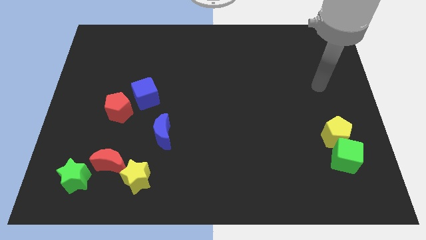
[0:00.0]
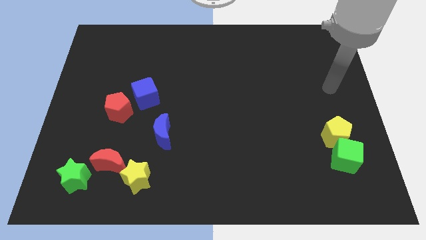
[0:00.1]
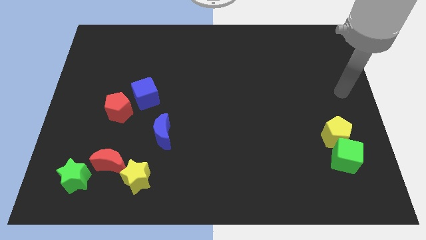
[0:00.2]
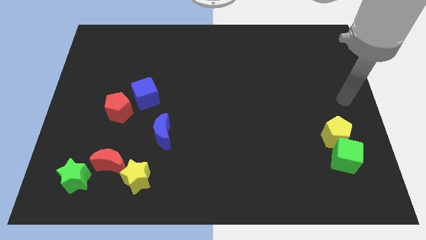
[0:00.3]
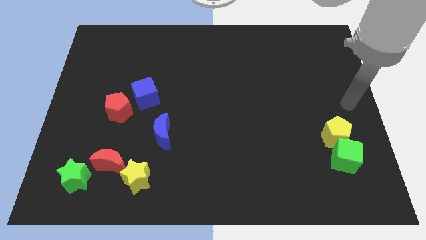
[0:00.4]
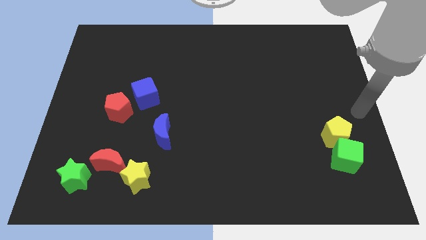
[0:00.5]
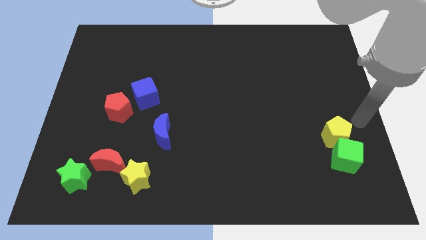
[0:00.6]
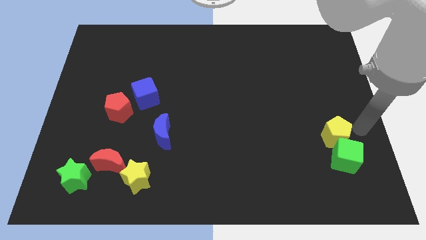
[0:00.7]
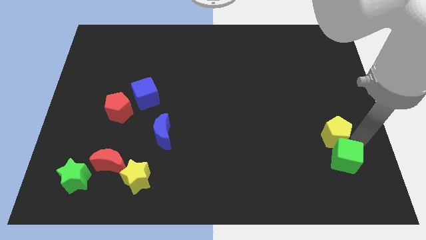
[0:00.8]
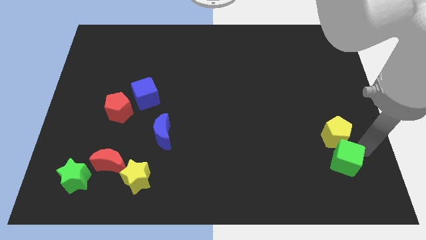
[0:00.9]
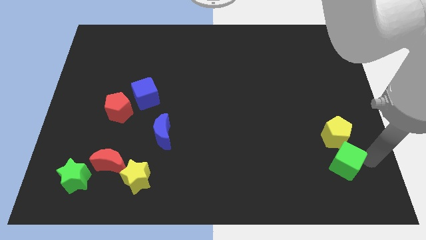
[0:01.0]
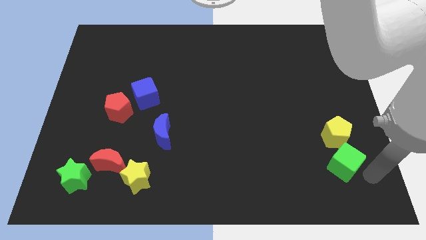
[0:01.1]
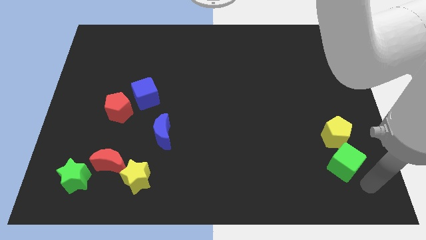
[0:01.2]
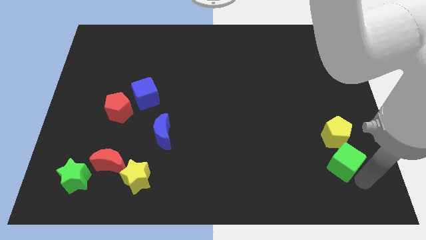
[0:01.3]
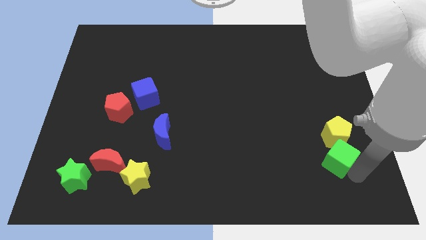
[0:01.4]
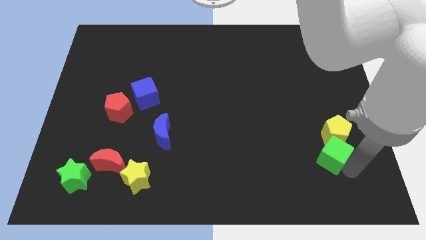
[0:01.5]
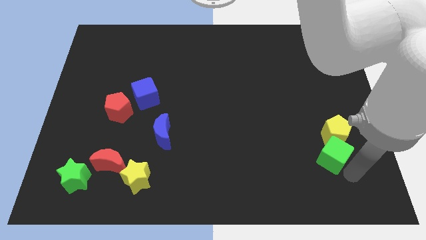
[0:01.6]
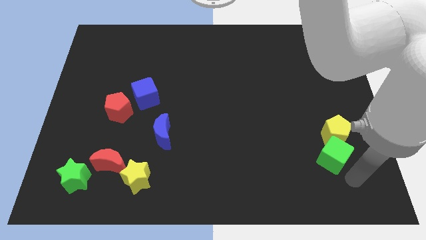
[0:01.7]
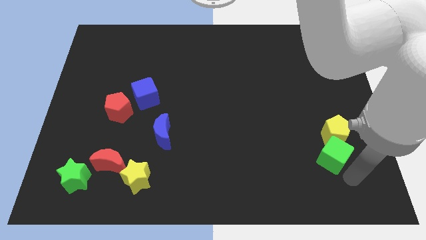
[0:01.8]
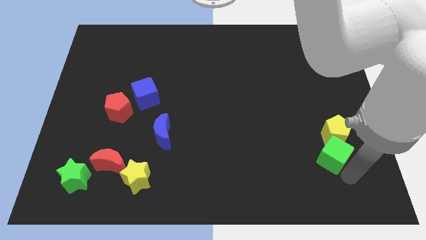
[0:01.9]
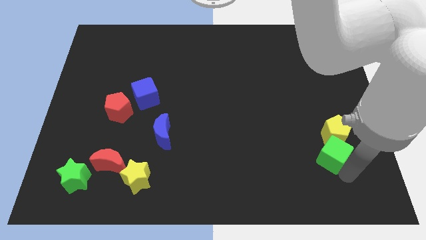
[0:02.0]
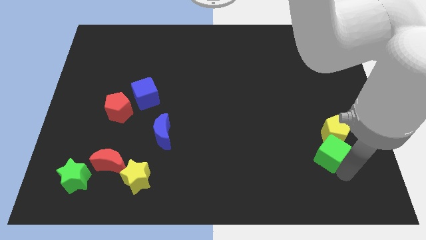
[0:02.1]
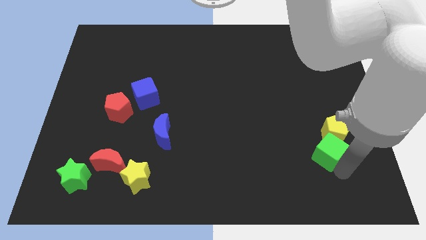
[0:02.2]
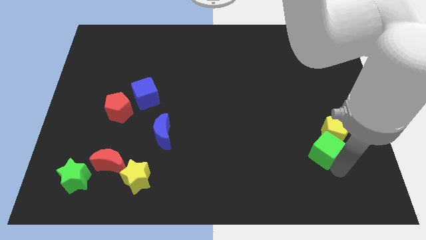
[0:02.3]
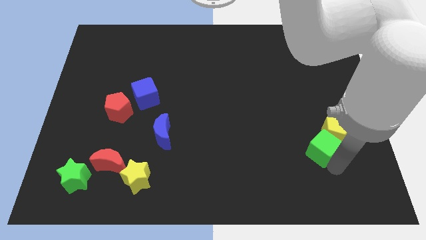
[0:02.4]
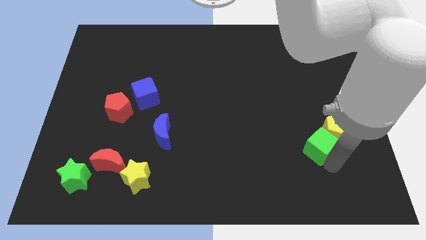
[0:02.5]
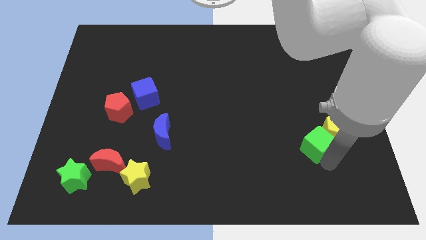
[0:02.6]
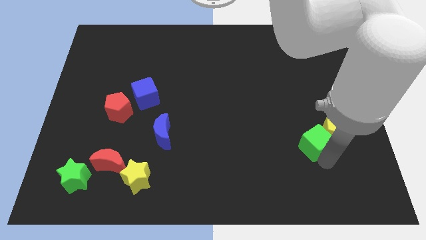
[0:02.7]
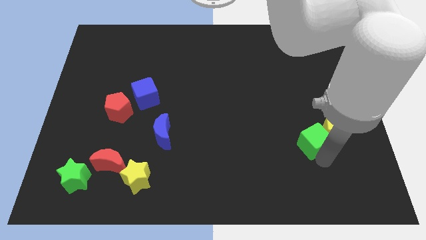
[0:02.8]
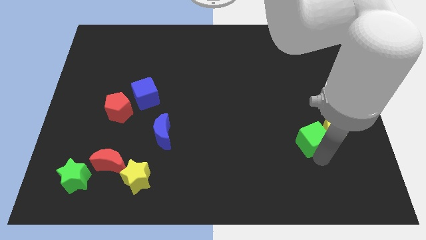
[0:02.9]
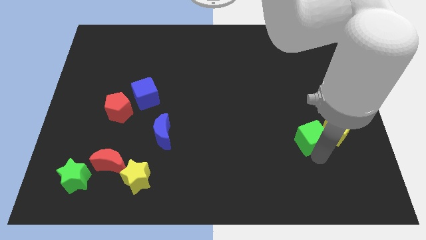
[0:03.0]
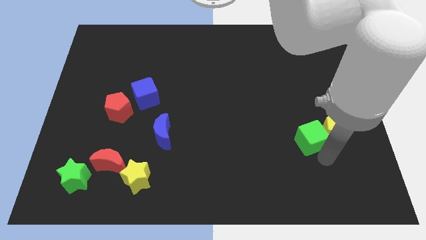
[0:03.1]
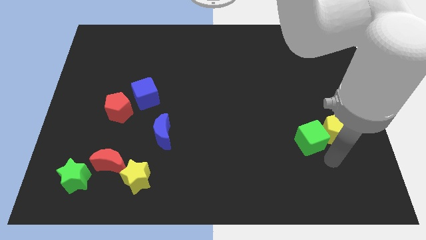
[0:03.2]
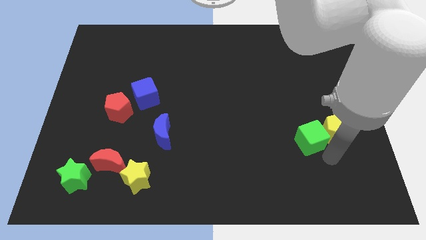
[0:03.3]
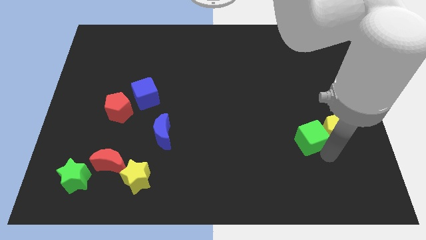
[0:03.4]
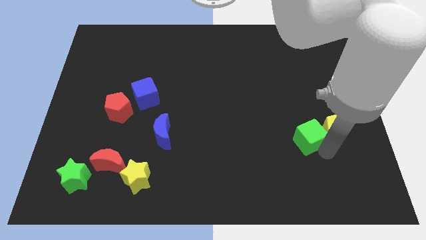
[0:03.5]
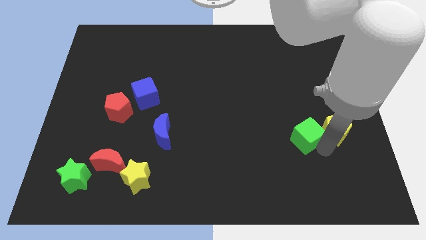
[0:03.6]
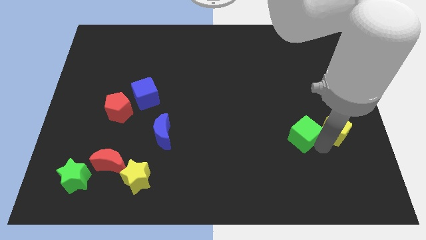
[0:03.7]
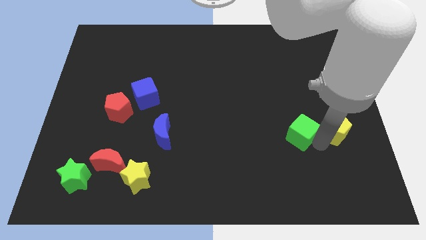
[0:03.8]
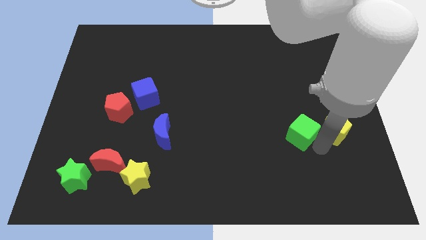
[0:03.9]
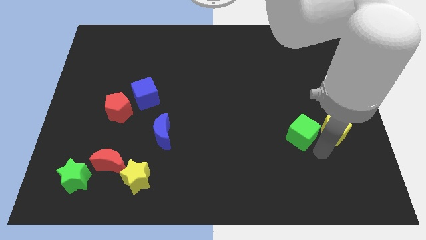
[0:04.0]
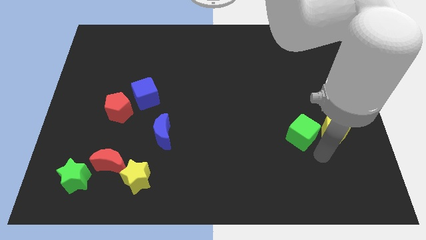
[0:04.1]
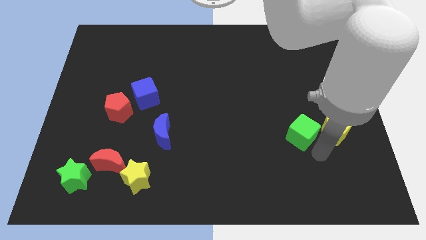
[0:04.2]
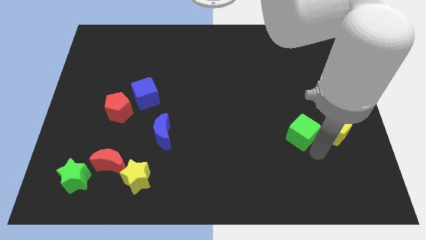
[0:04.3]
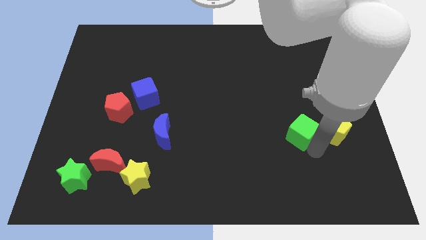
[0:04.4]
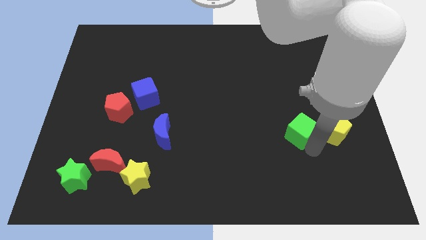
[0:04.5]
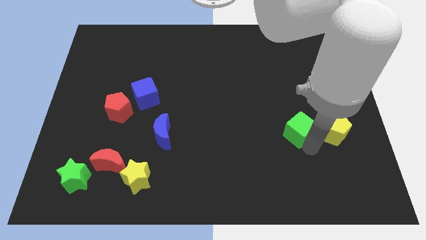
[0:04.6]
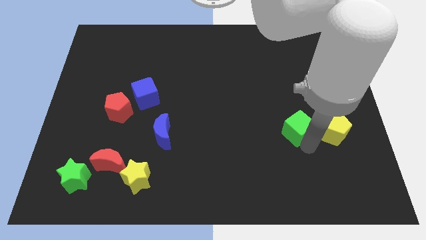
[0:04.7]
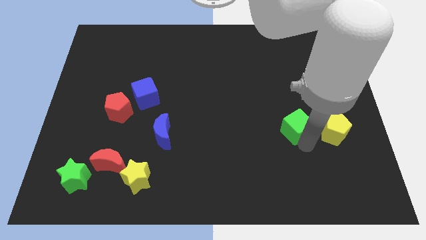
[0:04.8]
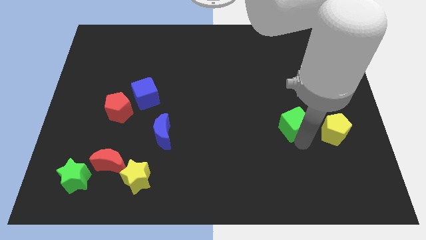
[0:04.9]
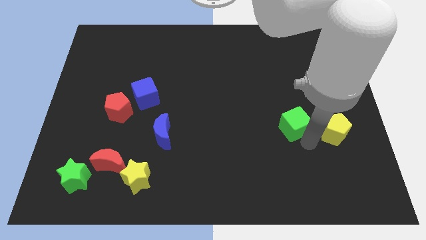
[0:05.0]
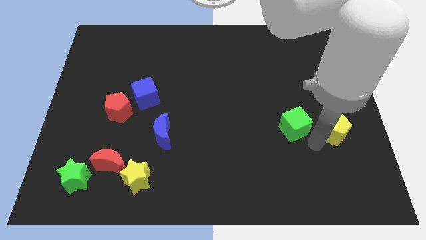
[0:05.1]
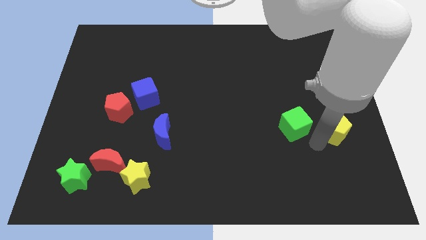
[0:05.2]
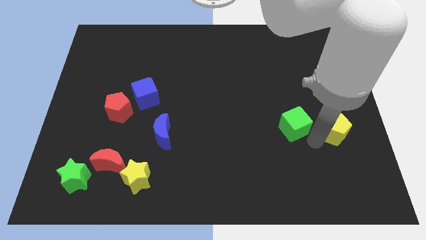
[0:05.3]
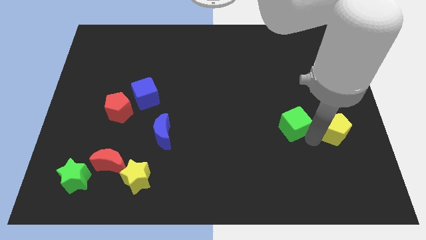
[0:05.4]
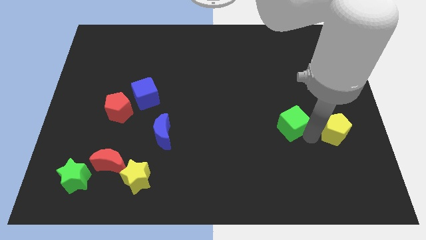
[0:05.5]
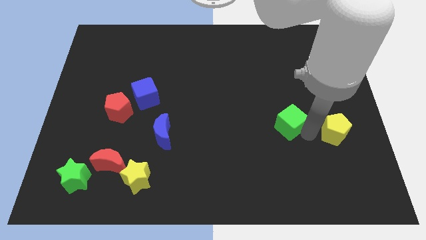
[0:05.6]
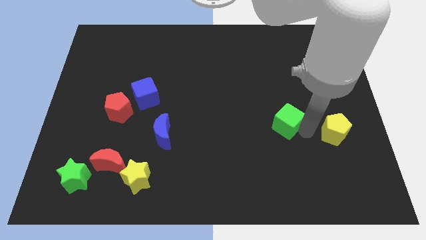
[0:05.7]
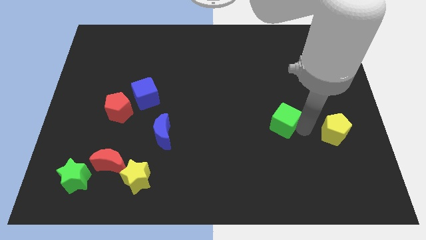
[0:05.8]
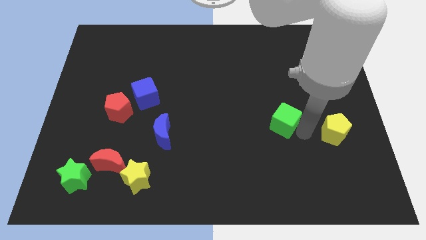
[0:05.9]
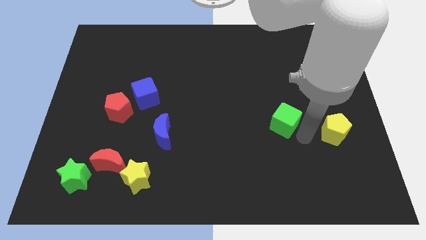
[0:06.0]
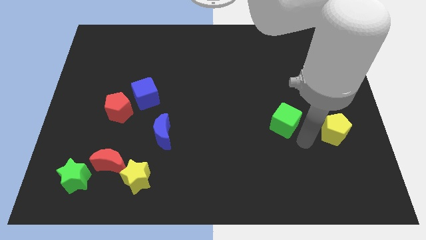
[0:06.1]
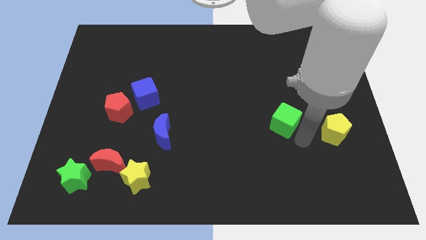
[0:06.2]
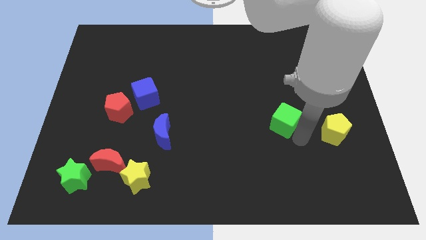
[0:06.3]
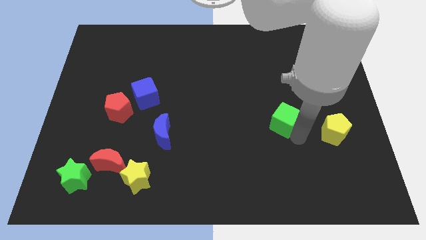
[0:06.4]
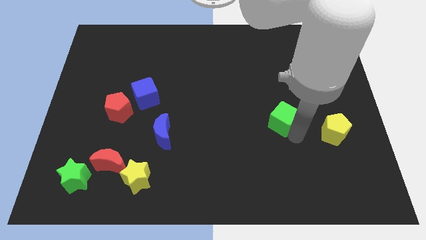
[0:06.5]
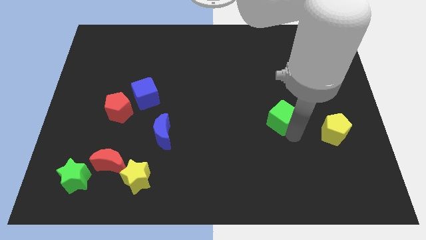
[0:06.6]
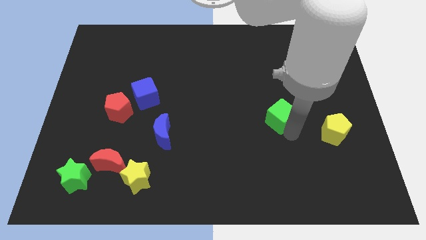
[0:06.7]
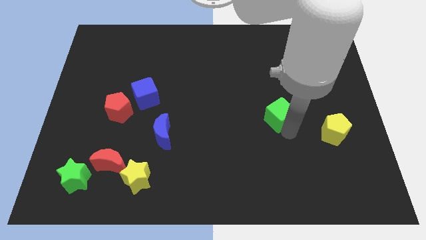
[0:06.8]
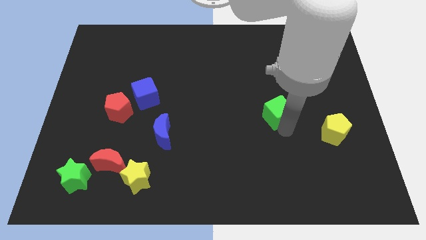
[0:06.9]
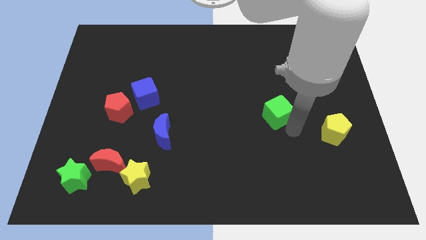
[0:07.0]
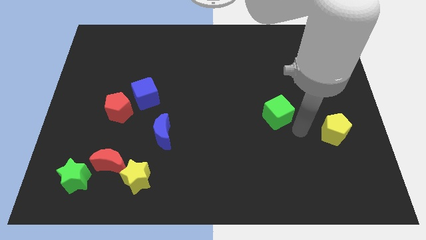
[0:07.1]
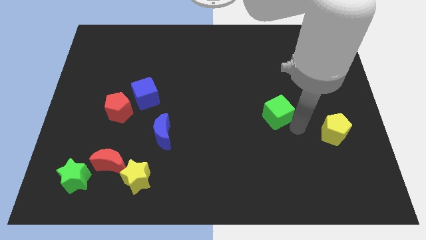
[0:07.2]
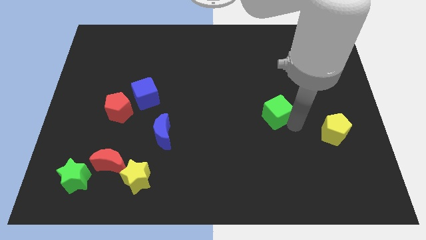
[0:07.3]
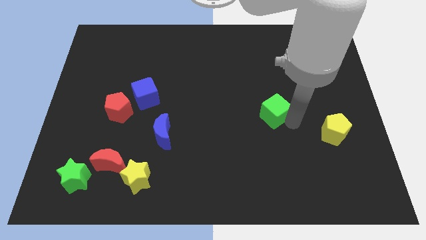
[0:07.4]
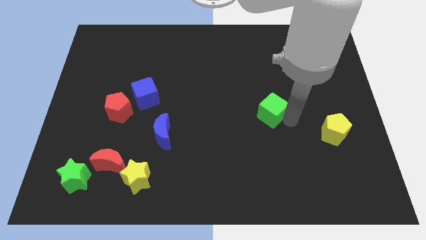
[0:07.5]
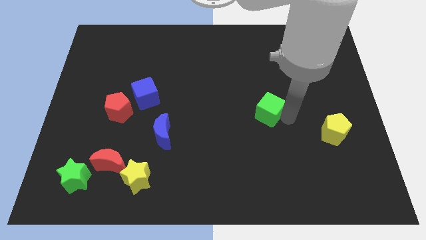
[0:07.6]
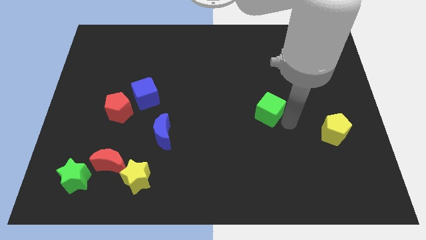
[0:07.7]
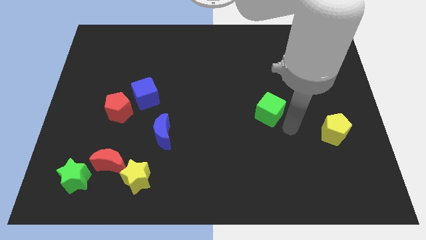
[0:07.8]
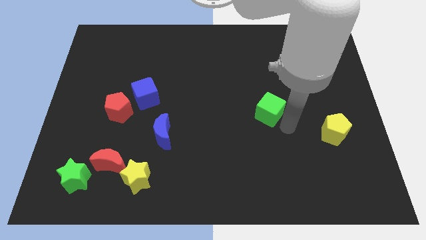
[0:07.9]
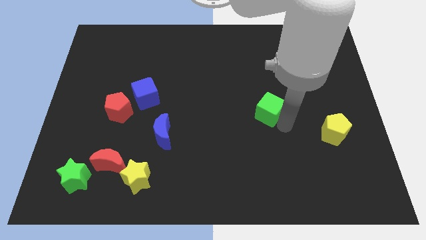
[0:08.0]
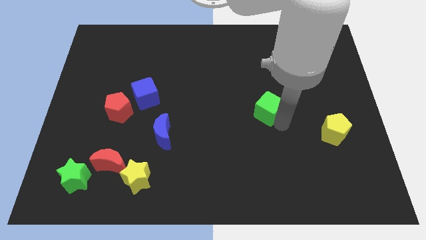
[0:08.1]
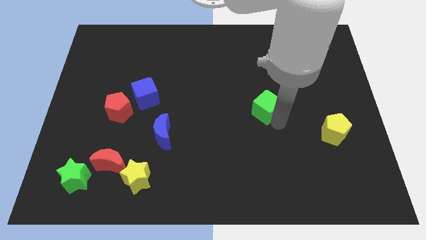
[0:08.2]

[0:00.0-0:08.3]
slide the green cube diagonally upwards and left
